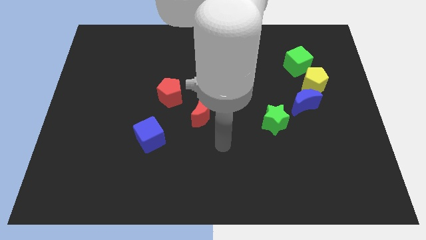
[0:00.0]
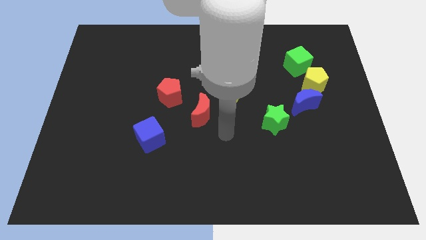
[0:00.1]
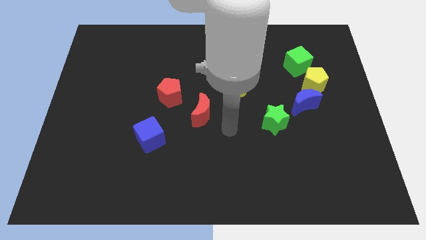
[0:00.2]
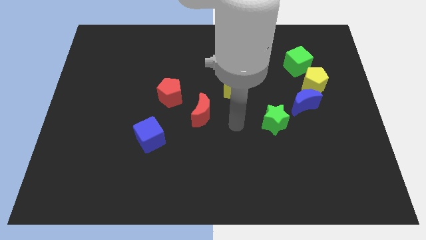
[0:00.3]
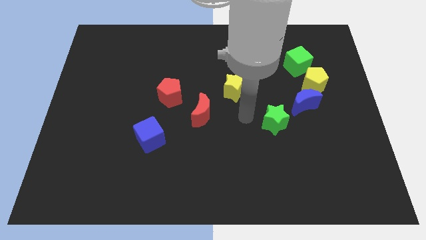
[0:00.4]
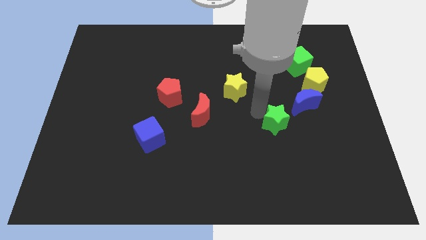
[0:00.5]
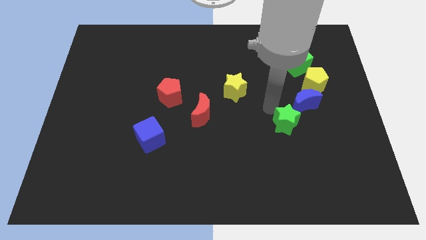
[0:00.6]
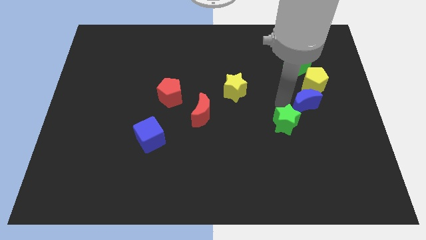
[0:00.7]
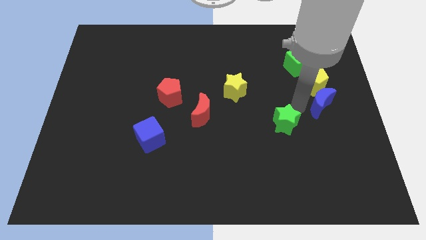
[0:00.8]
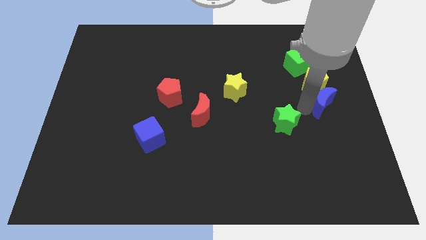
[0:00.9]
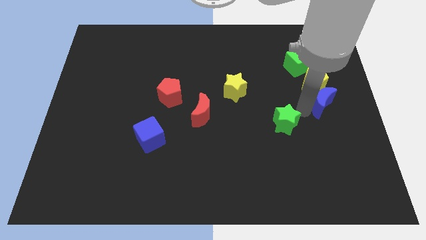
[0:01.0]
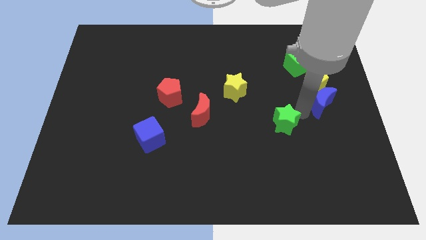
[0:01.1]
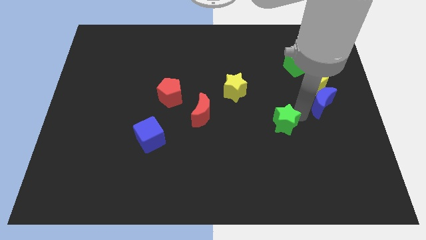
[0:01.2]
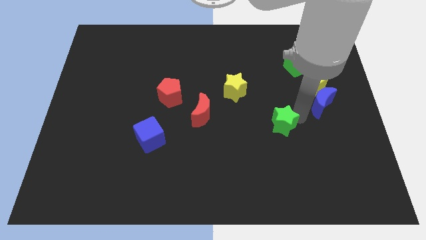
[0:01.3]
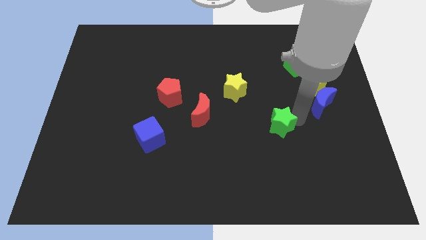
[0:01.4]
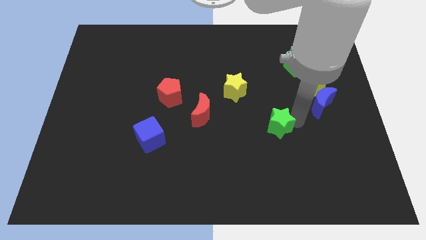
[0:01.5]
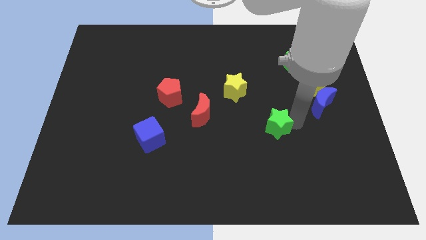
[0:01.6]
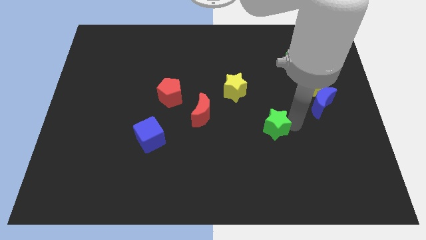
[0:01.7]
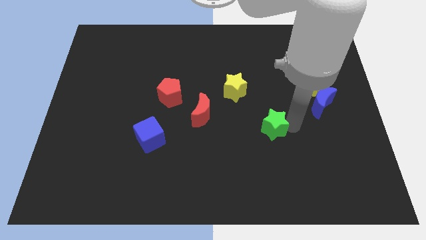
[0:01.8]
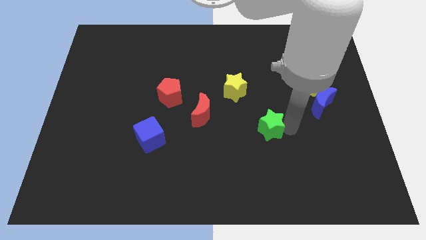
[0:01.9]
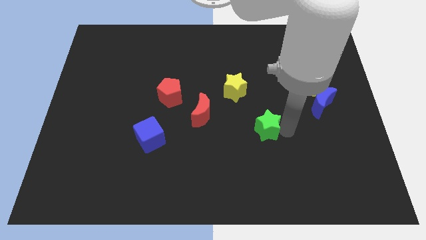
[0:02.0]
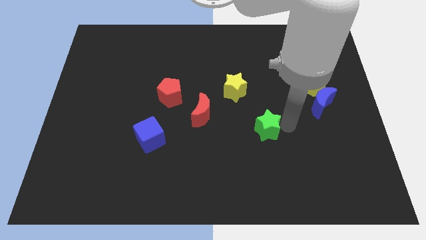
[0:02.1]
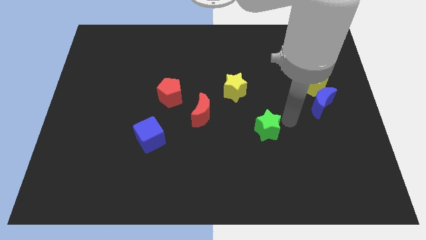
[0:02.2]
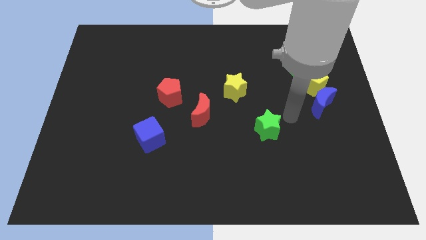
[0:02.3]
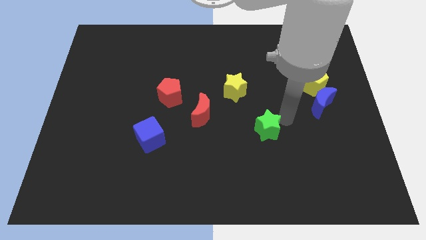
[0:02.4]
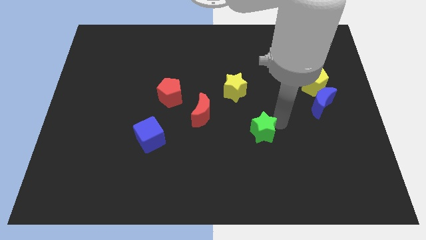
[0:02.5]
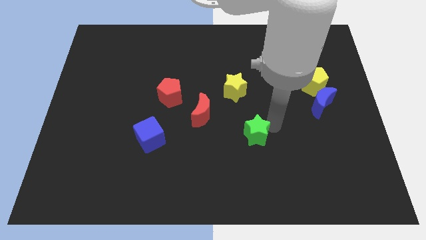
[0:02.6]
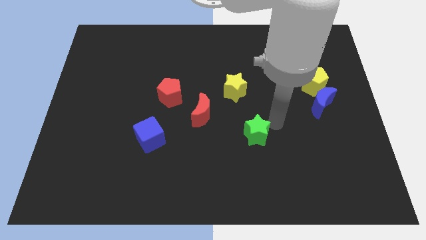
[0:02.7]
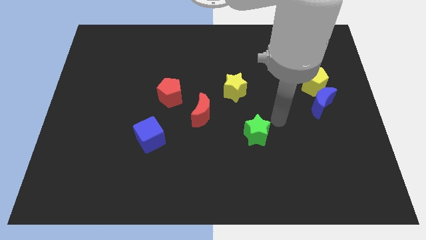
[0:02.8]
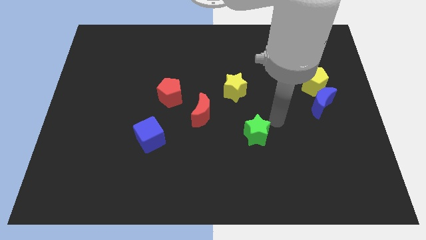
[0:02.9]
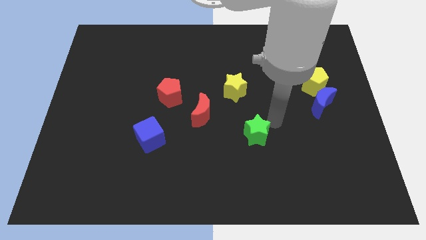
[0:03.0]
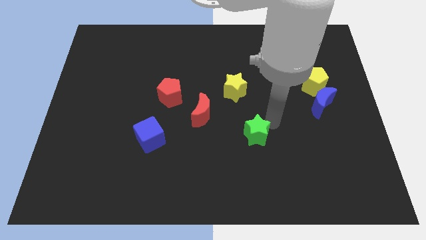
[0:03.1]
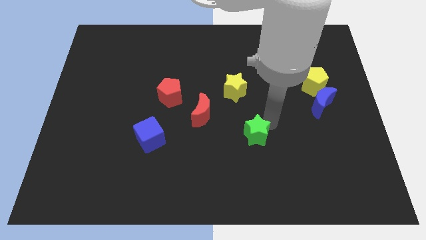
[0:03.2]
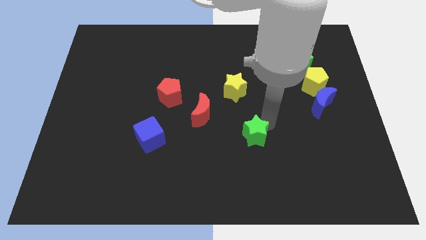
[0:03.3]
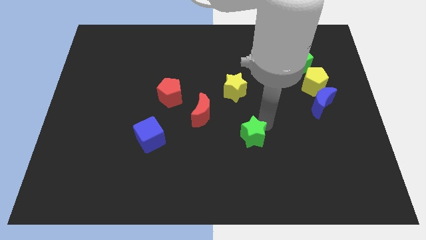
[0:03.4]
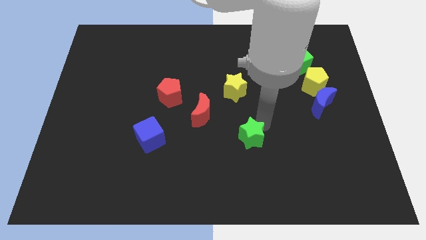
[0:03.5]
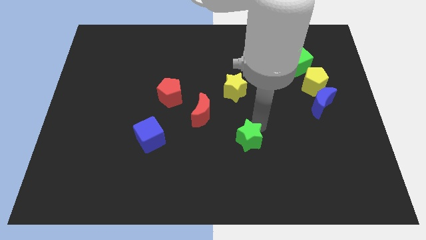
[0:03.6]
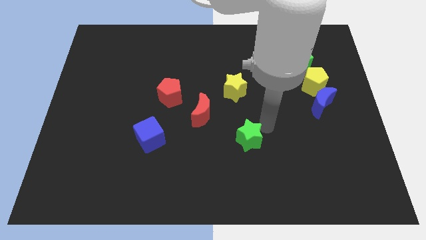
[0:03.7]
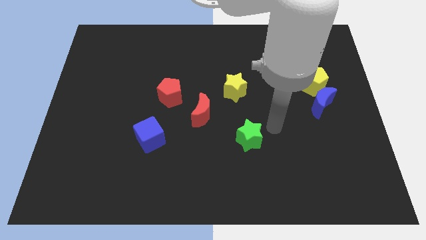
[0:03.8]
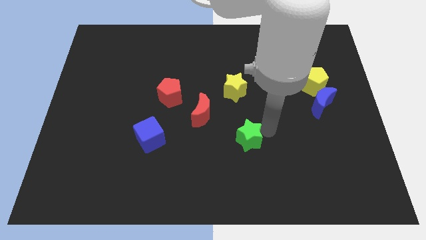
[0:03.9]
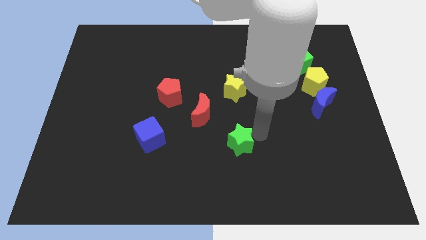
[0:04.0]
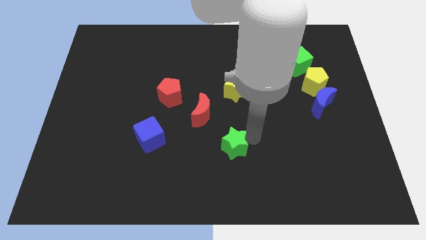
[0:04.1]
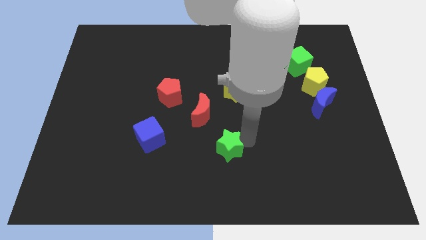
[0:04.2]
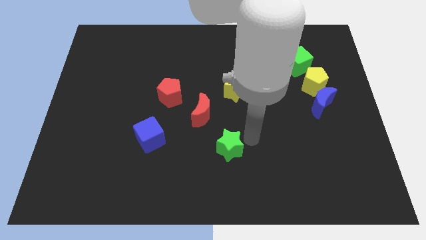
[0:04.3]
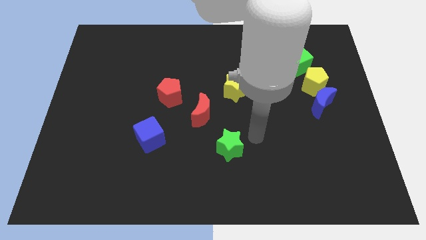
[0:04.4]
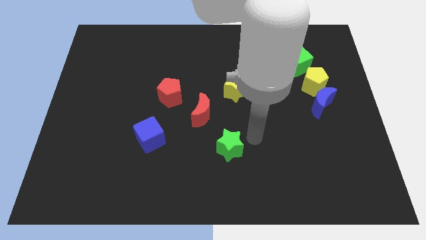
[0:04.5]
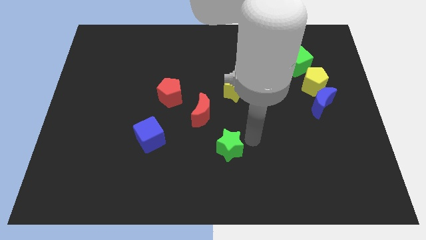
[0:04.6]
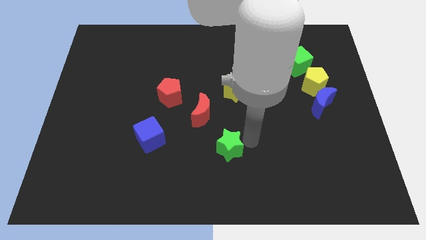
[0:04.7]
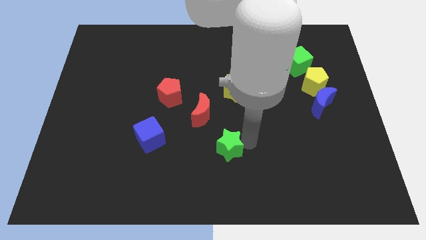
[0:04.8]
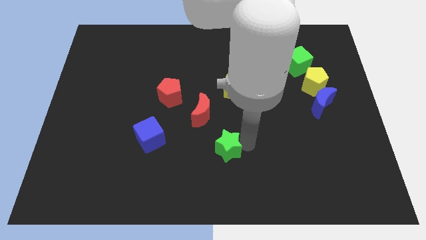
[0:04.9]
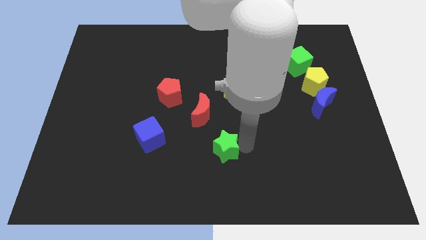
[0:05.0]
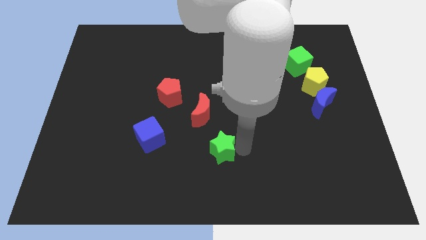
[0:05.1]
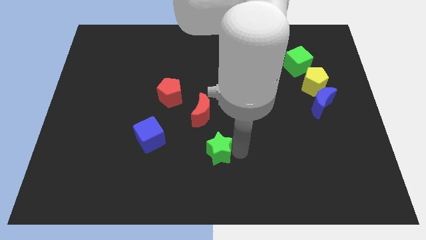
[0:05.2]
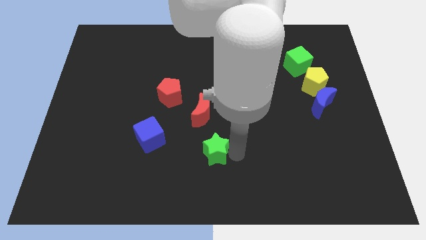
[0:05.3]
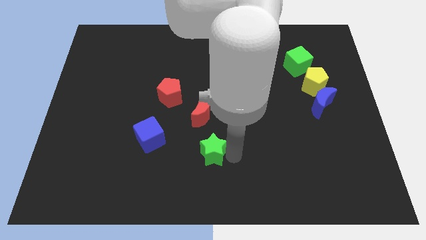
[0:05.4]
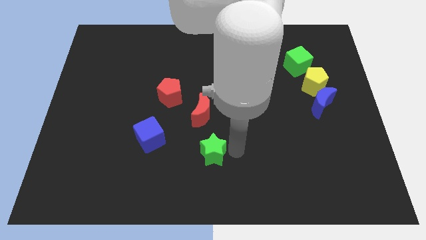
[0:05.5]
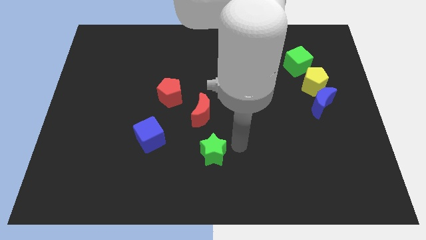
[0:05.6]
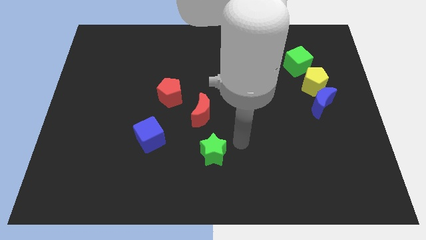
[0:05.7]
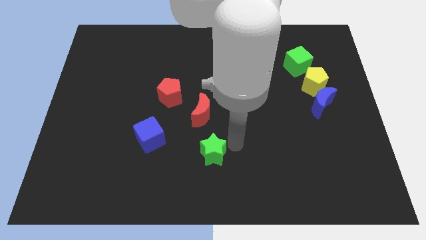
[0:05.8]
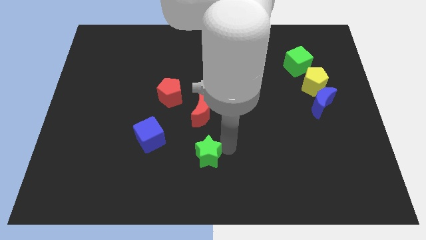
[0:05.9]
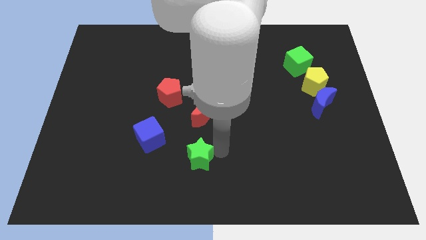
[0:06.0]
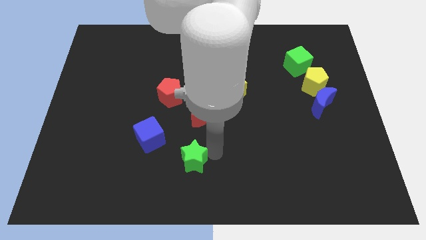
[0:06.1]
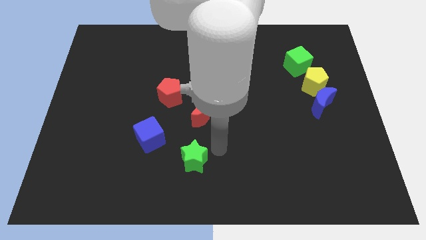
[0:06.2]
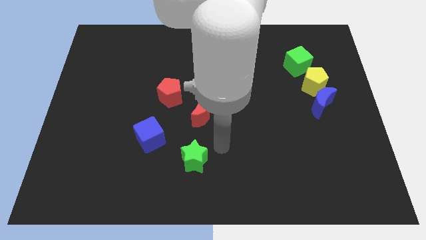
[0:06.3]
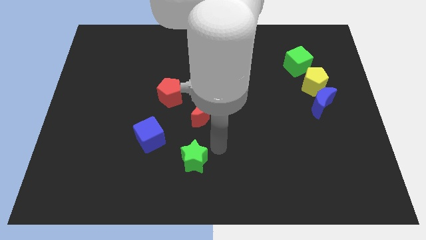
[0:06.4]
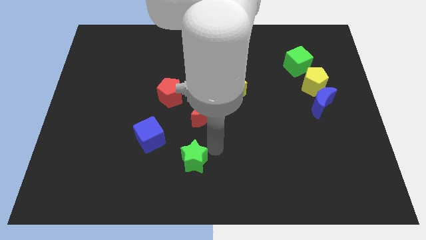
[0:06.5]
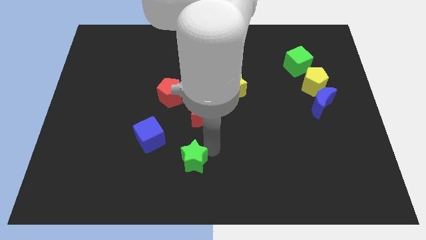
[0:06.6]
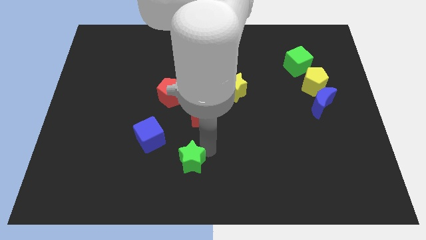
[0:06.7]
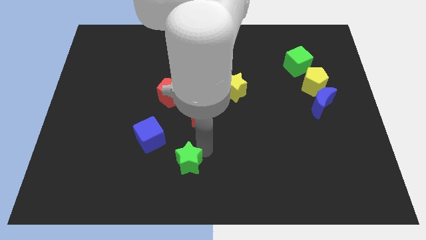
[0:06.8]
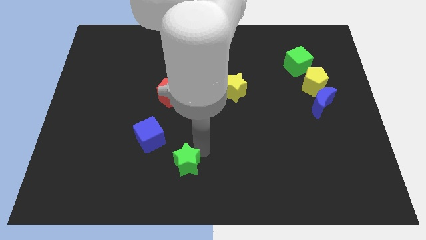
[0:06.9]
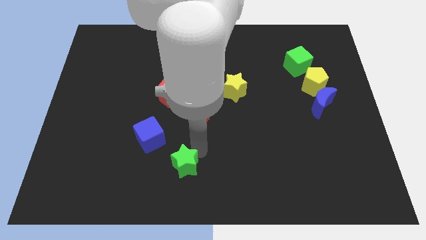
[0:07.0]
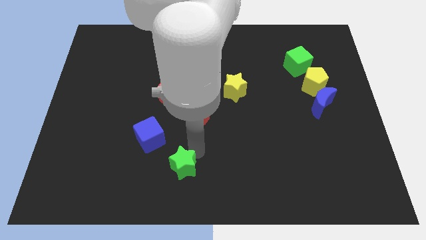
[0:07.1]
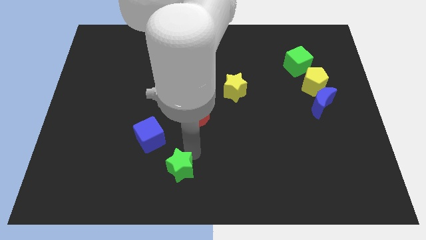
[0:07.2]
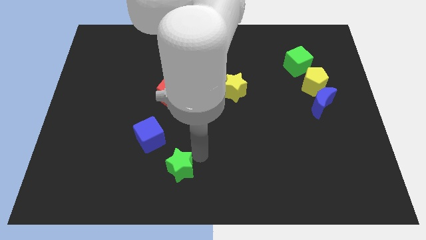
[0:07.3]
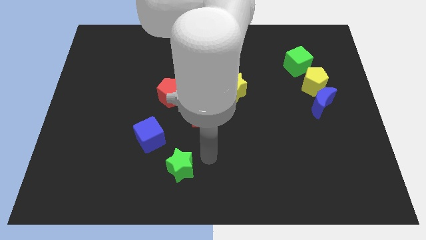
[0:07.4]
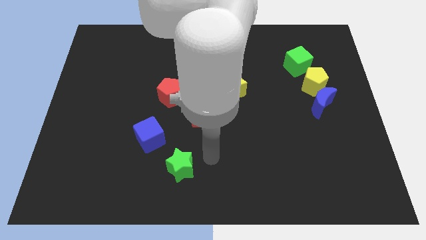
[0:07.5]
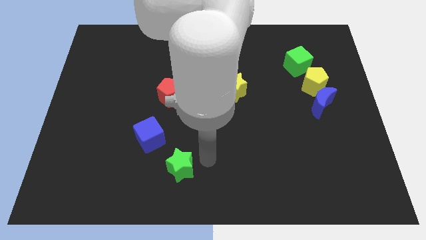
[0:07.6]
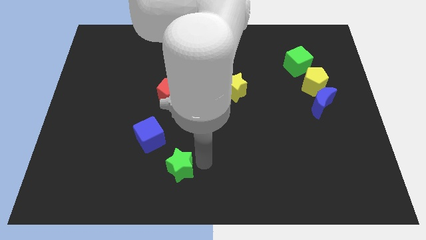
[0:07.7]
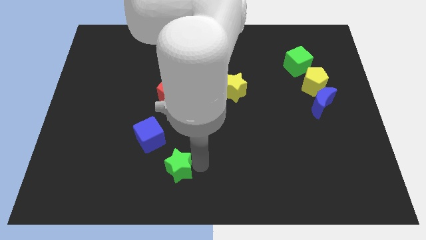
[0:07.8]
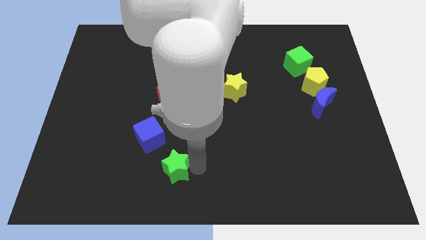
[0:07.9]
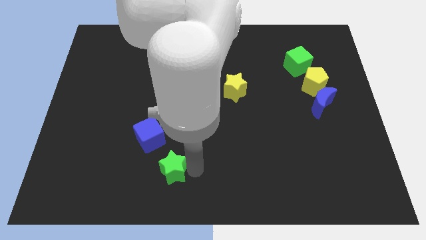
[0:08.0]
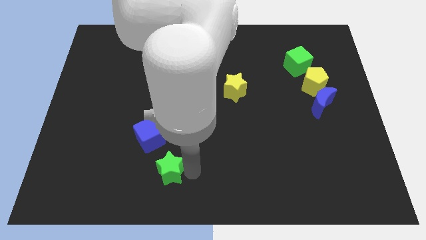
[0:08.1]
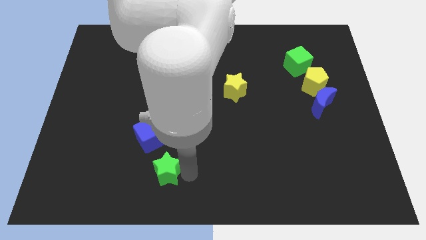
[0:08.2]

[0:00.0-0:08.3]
put the green star below the blue cube

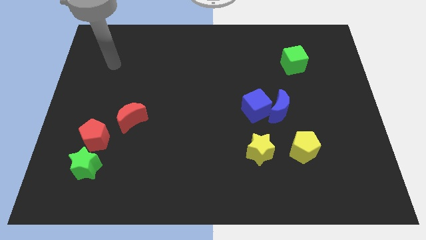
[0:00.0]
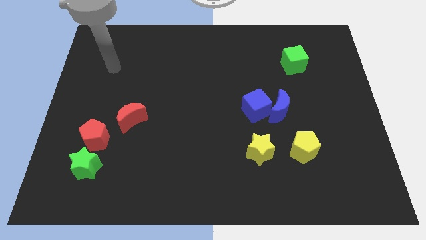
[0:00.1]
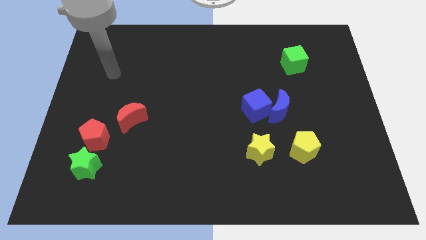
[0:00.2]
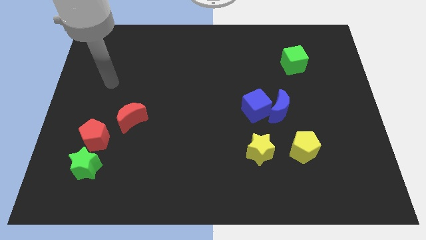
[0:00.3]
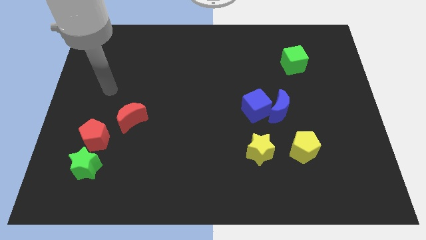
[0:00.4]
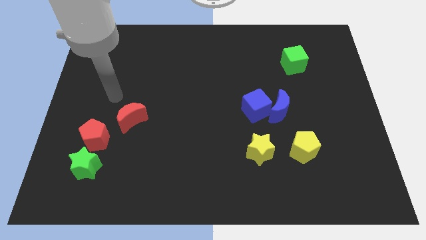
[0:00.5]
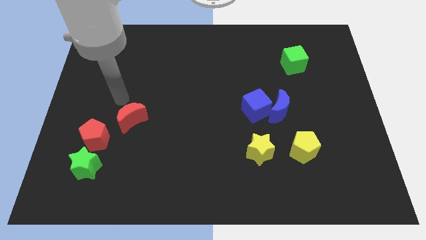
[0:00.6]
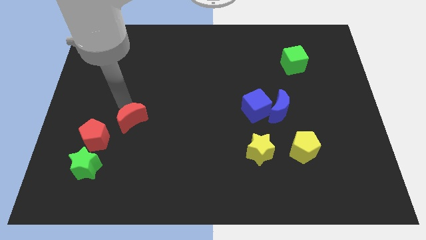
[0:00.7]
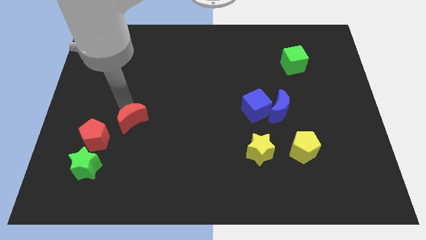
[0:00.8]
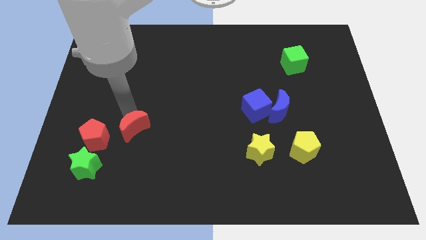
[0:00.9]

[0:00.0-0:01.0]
push the red moon right of the red pentagon
